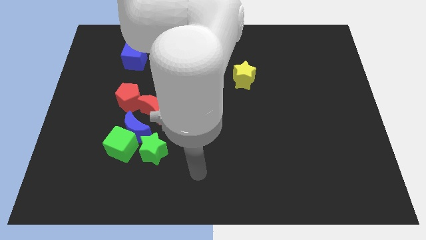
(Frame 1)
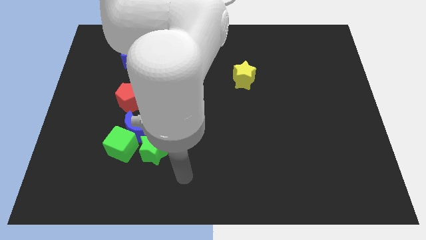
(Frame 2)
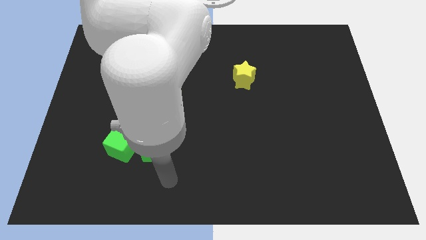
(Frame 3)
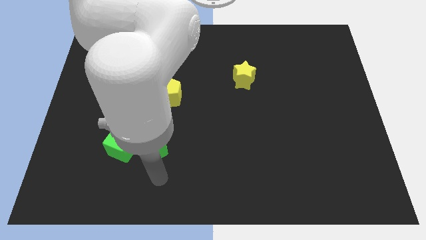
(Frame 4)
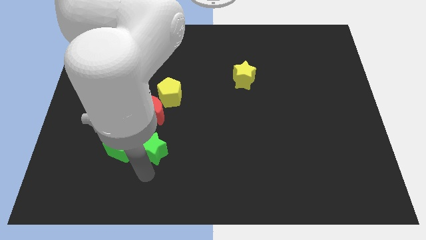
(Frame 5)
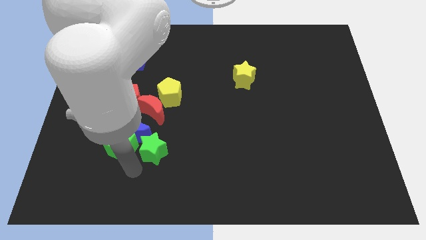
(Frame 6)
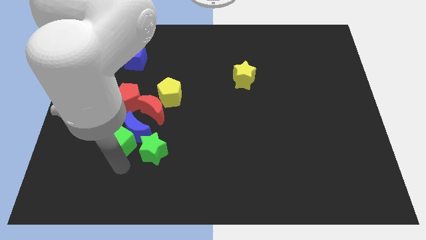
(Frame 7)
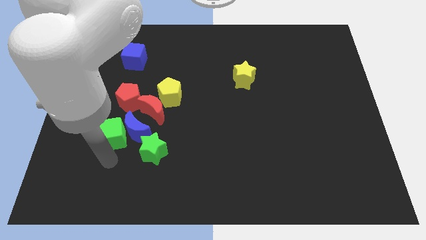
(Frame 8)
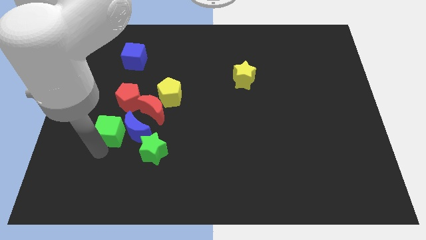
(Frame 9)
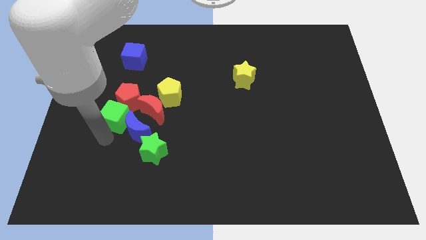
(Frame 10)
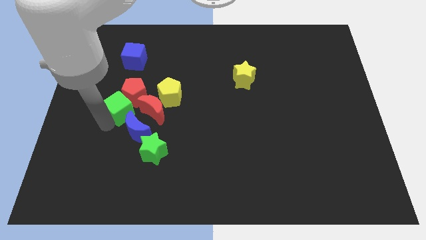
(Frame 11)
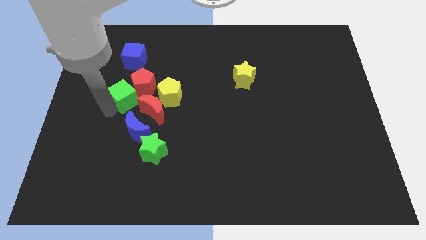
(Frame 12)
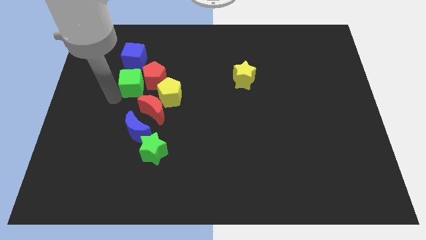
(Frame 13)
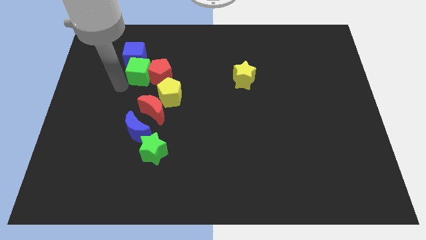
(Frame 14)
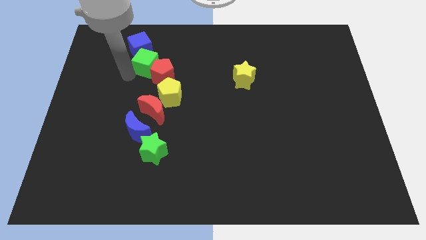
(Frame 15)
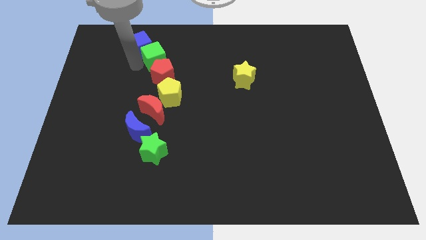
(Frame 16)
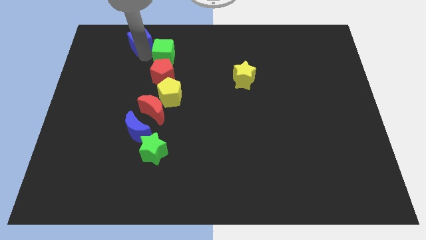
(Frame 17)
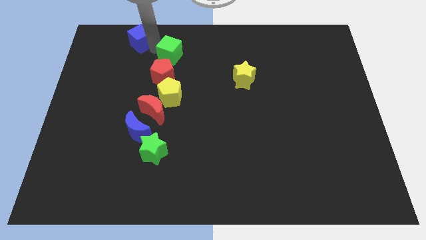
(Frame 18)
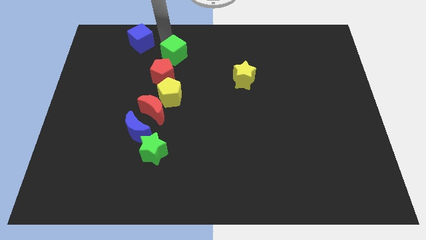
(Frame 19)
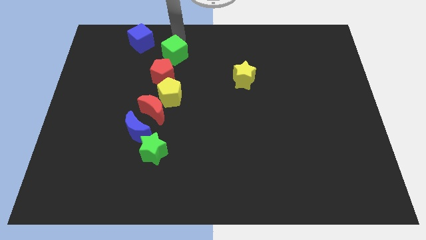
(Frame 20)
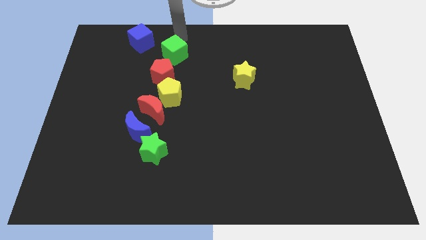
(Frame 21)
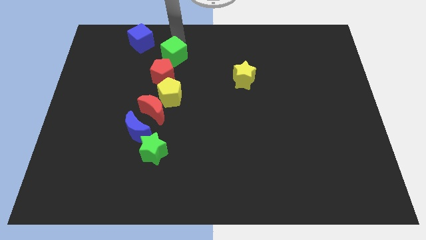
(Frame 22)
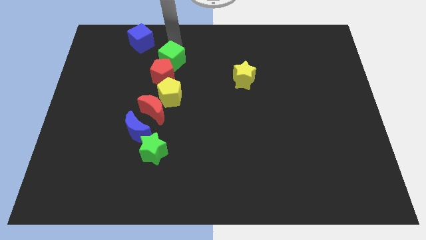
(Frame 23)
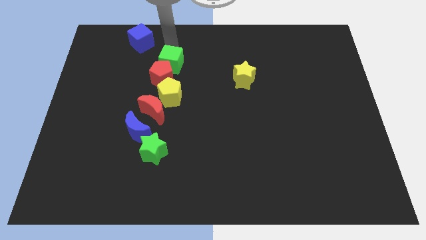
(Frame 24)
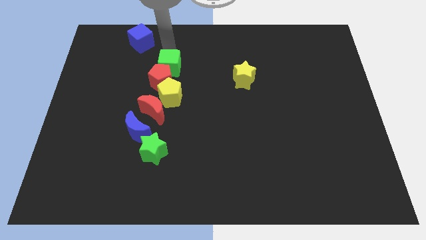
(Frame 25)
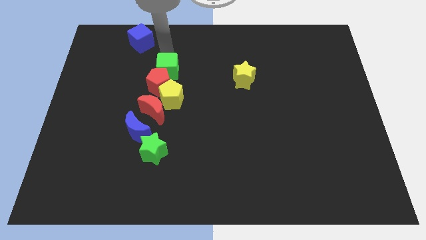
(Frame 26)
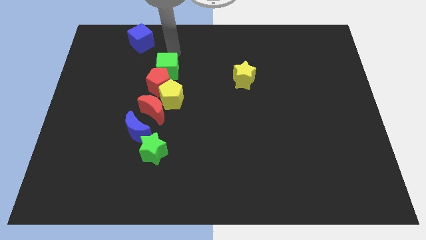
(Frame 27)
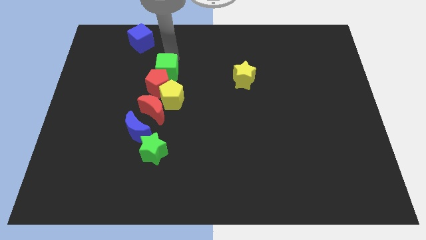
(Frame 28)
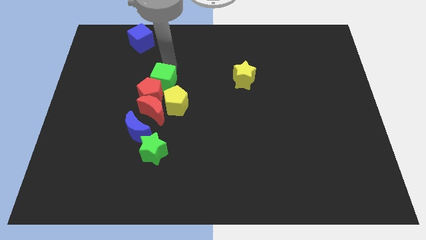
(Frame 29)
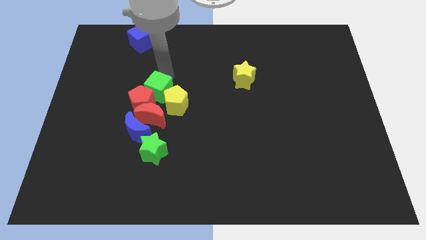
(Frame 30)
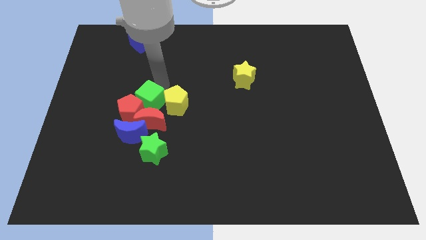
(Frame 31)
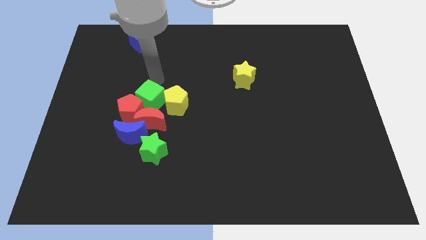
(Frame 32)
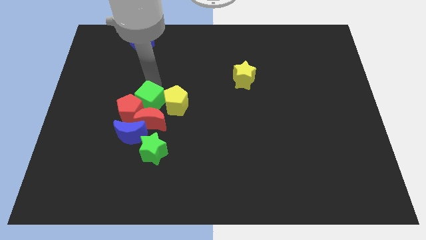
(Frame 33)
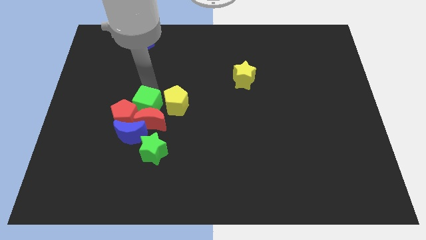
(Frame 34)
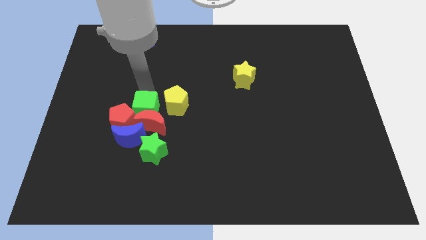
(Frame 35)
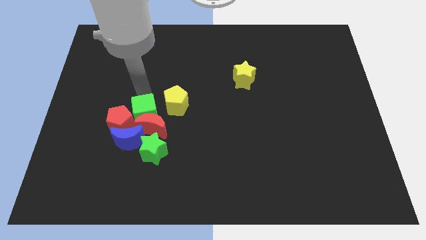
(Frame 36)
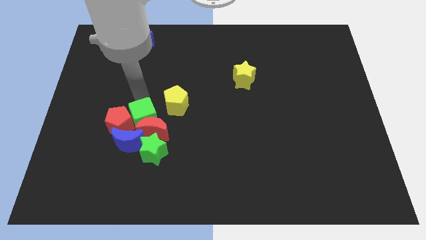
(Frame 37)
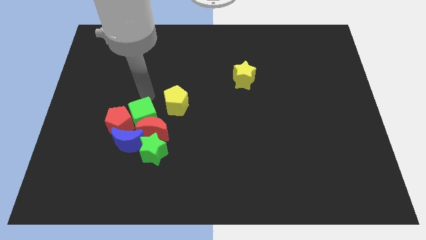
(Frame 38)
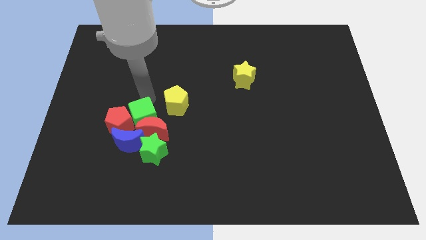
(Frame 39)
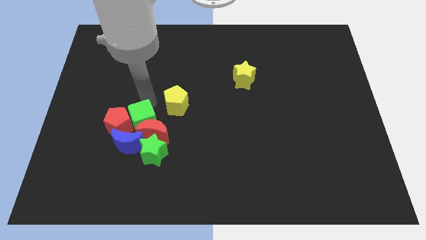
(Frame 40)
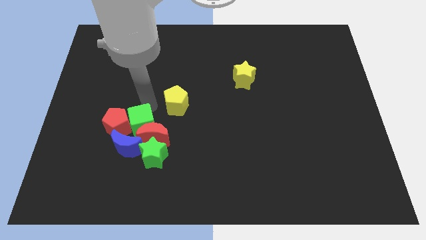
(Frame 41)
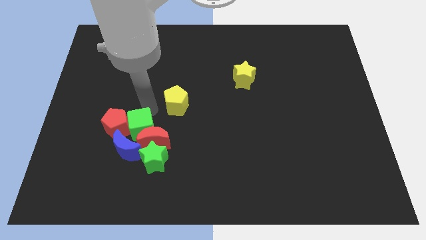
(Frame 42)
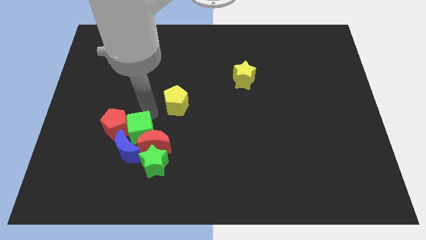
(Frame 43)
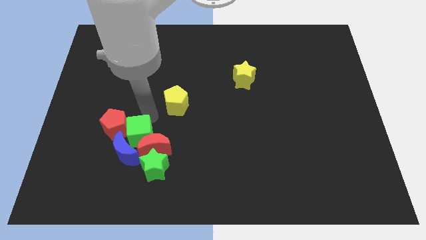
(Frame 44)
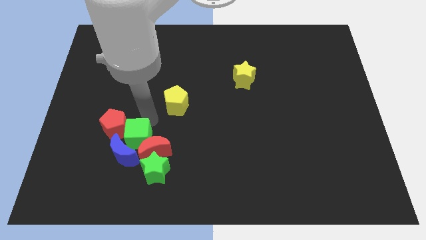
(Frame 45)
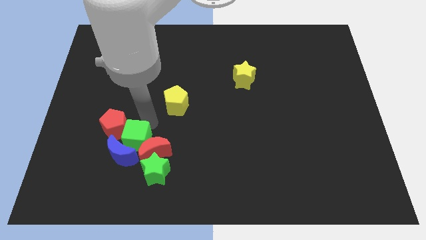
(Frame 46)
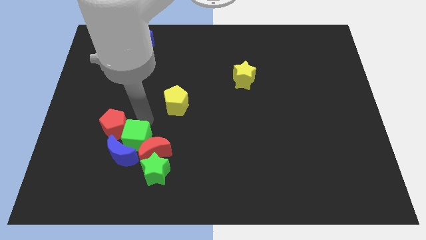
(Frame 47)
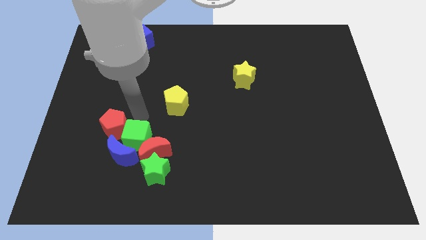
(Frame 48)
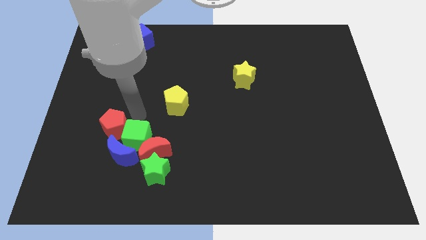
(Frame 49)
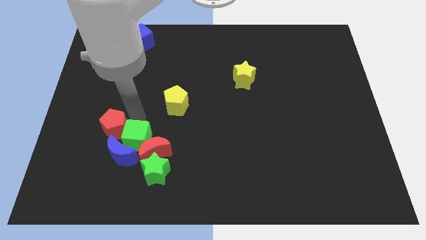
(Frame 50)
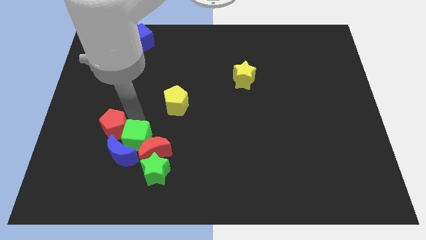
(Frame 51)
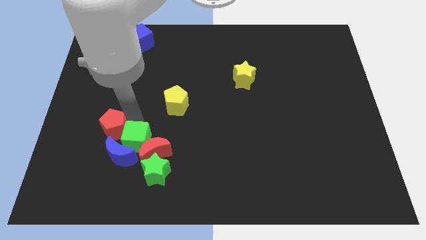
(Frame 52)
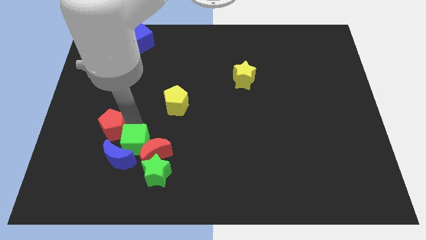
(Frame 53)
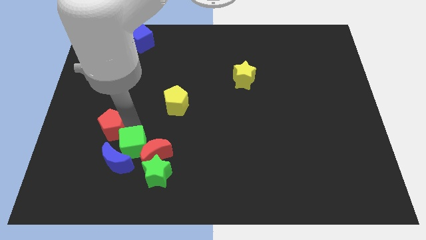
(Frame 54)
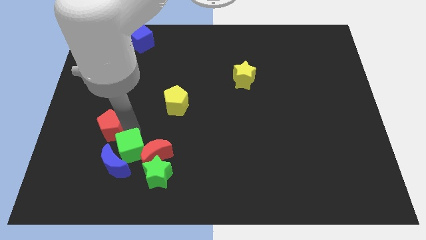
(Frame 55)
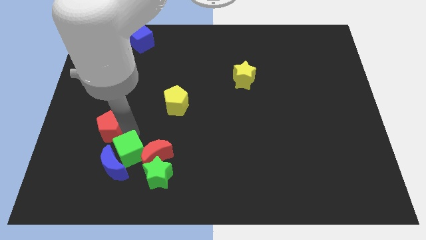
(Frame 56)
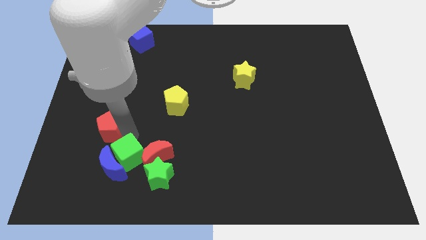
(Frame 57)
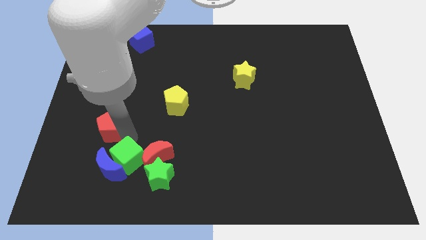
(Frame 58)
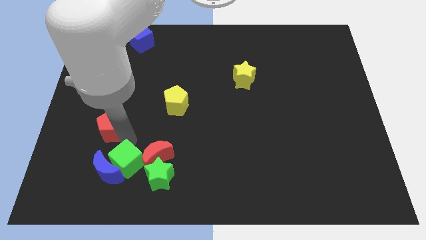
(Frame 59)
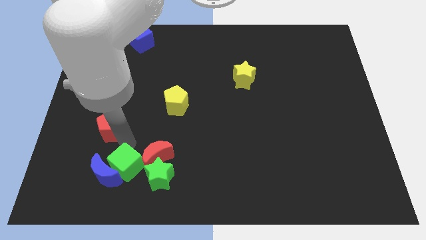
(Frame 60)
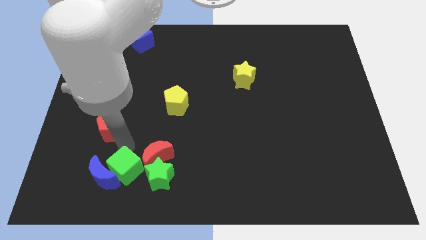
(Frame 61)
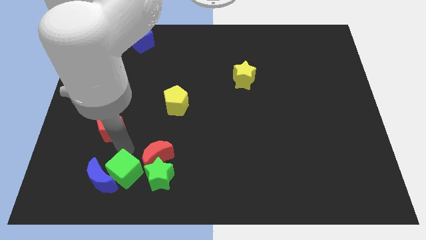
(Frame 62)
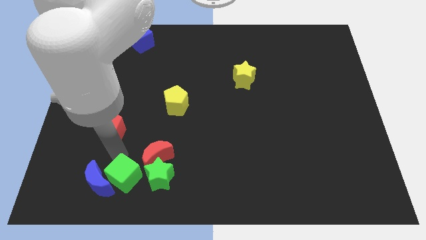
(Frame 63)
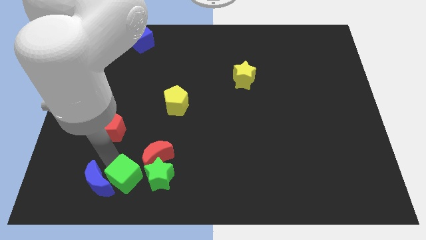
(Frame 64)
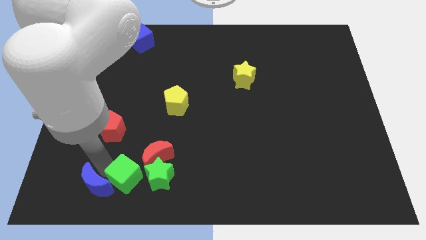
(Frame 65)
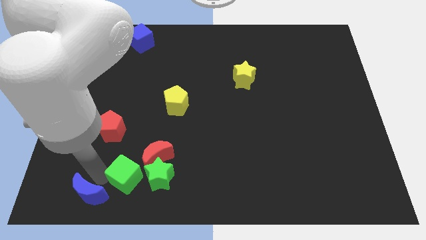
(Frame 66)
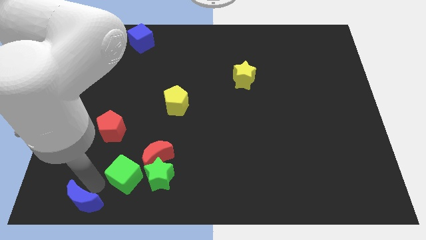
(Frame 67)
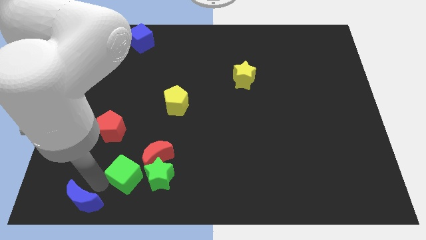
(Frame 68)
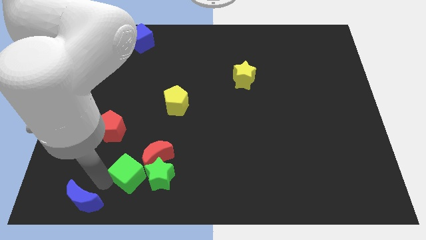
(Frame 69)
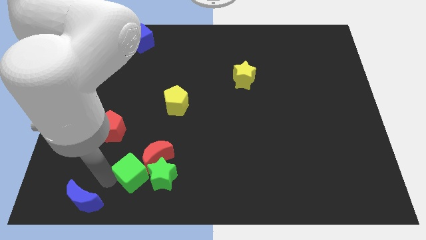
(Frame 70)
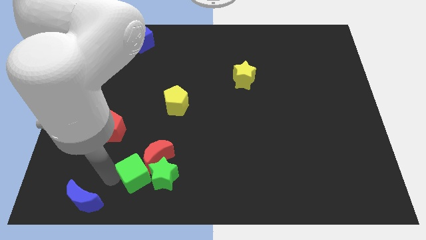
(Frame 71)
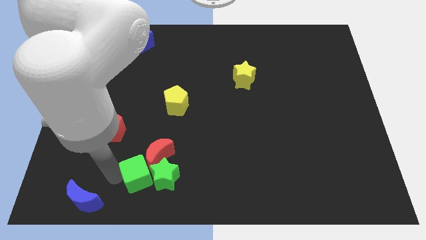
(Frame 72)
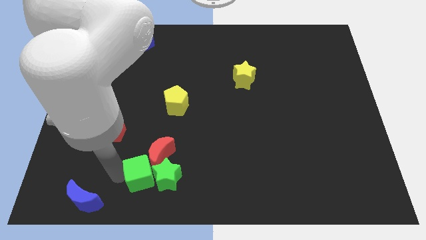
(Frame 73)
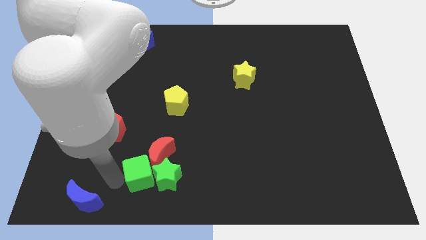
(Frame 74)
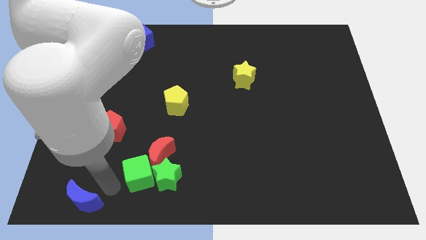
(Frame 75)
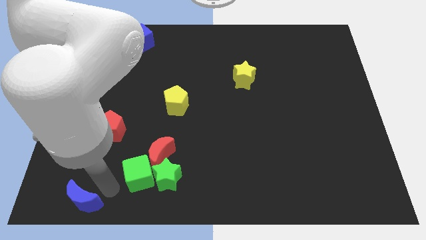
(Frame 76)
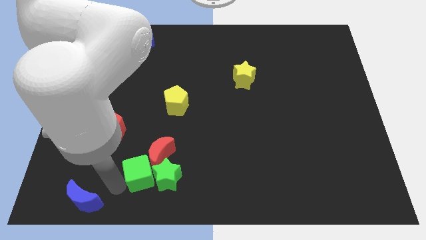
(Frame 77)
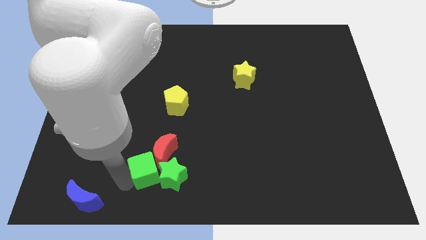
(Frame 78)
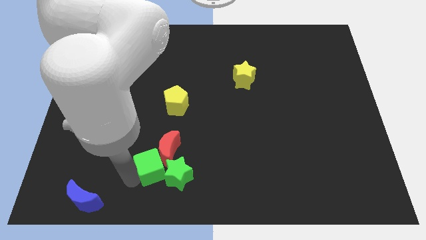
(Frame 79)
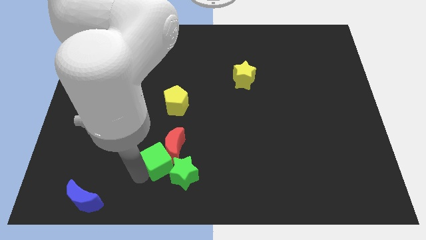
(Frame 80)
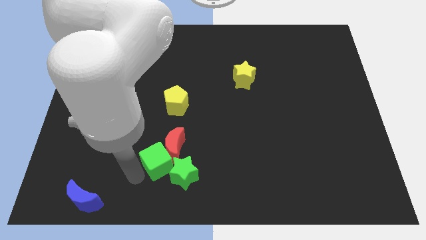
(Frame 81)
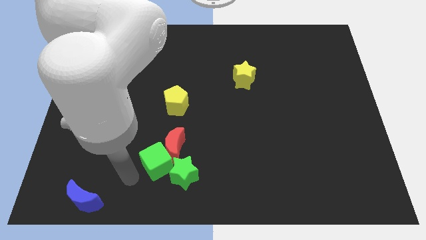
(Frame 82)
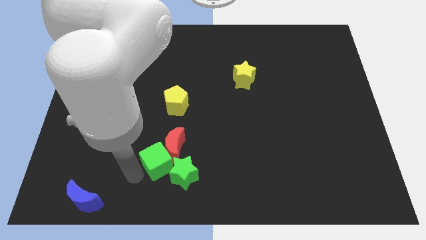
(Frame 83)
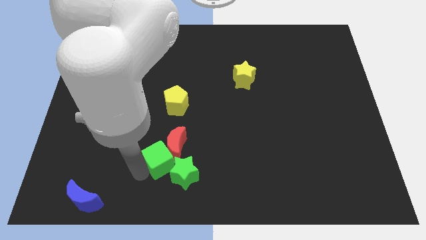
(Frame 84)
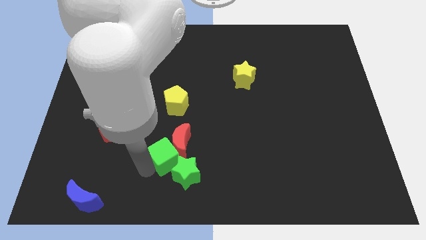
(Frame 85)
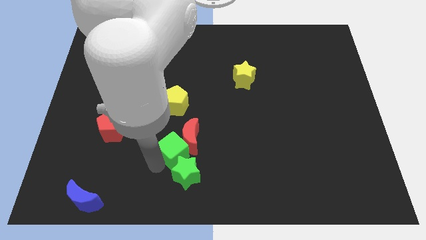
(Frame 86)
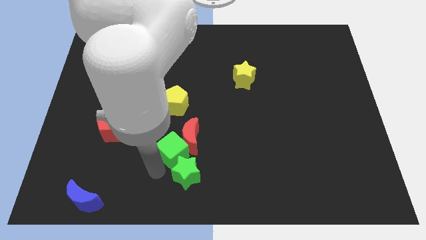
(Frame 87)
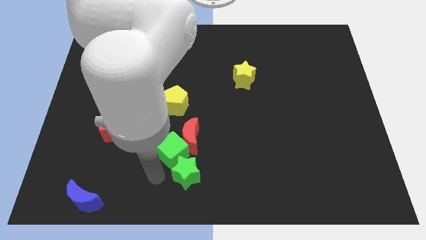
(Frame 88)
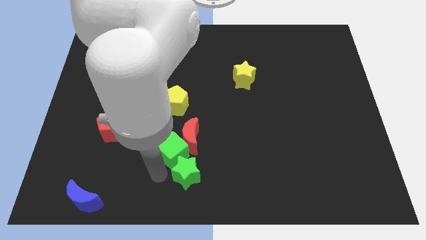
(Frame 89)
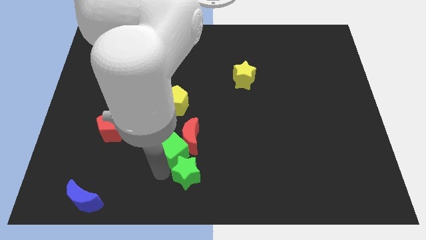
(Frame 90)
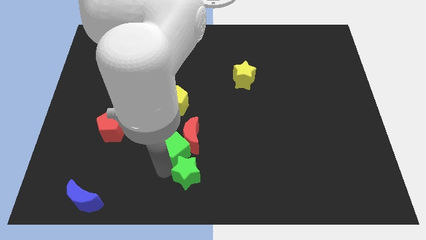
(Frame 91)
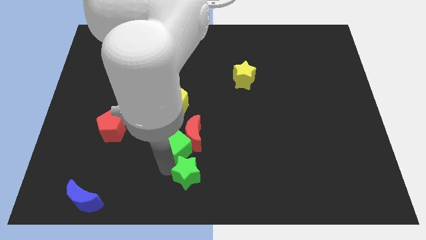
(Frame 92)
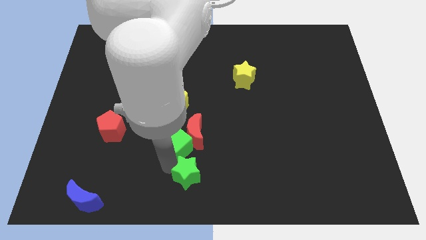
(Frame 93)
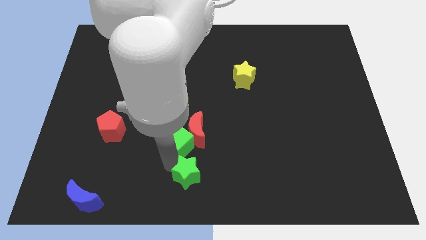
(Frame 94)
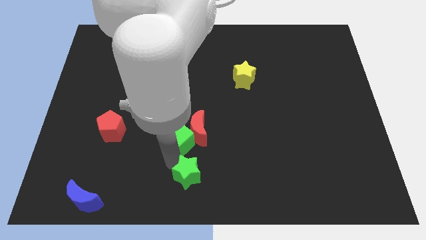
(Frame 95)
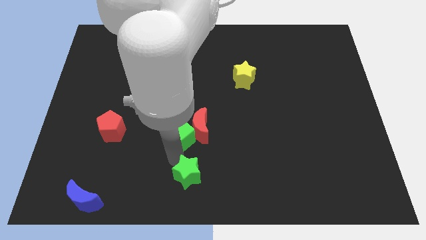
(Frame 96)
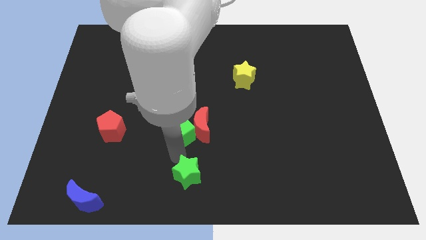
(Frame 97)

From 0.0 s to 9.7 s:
move the green cube to the middle of the board
